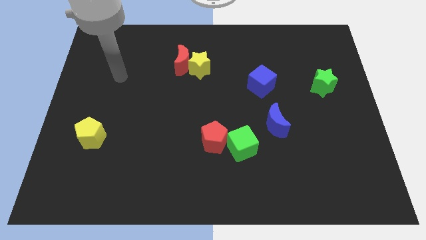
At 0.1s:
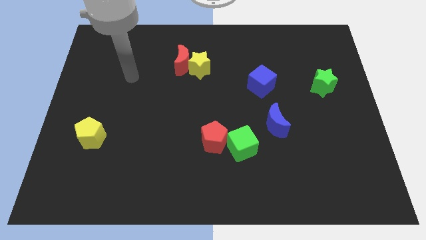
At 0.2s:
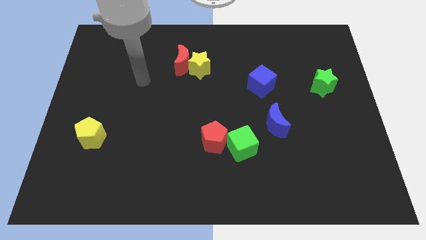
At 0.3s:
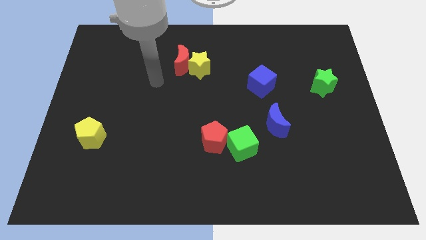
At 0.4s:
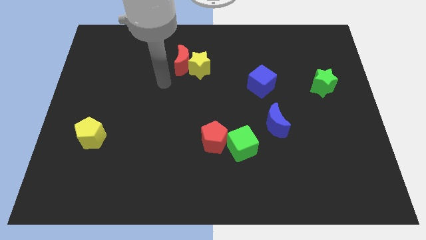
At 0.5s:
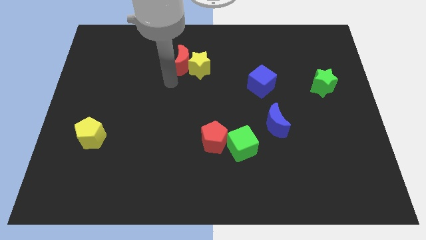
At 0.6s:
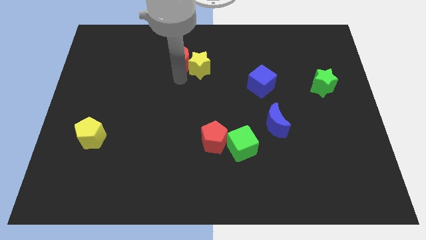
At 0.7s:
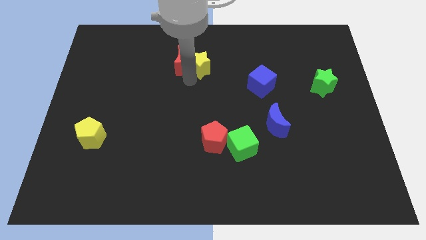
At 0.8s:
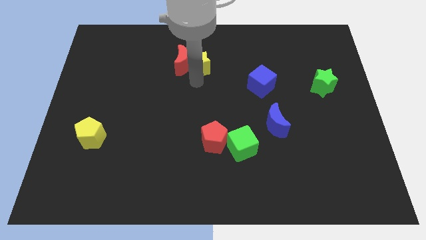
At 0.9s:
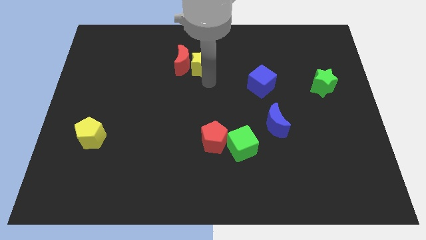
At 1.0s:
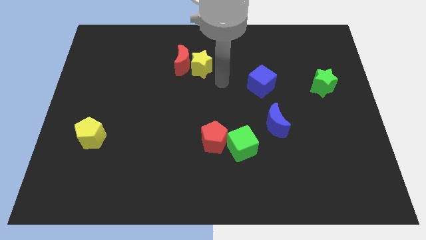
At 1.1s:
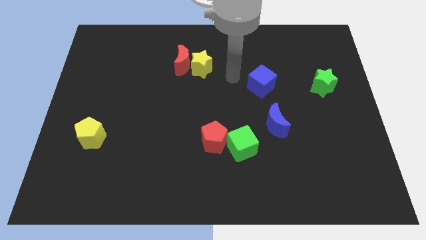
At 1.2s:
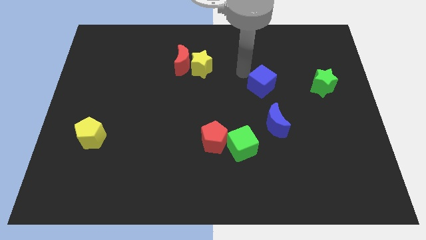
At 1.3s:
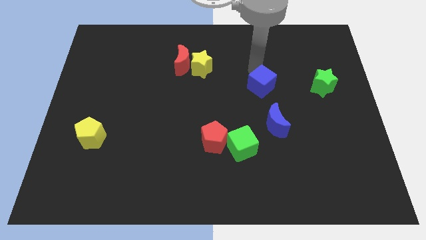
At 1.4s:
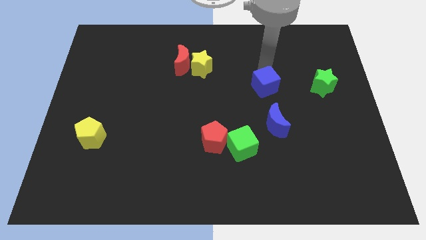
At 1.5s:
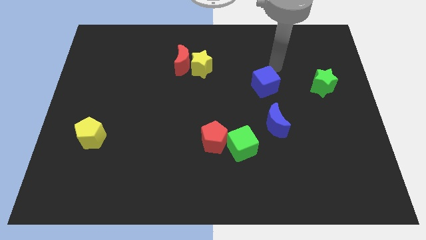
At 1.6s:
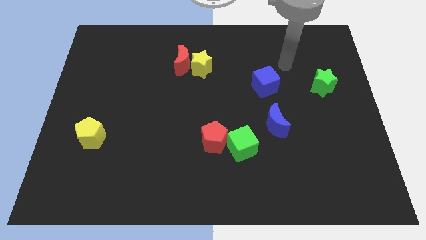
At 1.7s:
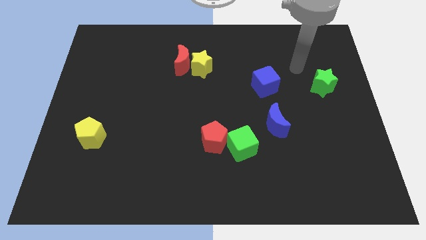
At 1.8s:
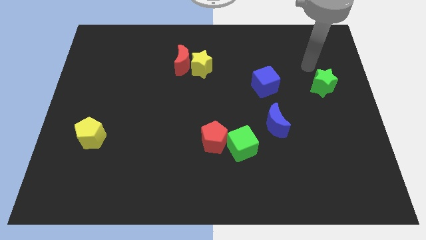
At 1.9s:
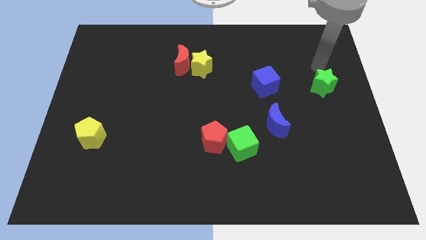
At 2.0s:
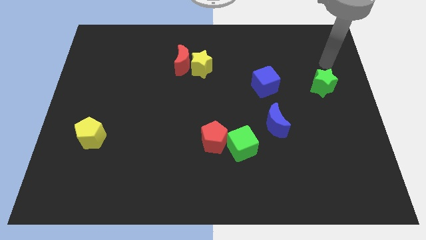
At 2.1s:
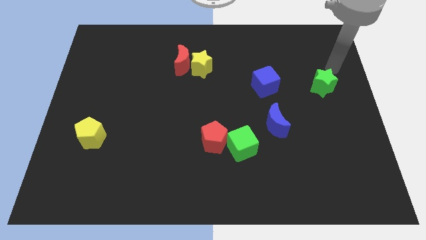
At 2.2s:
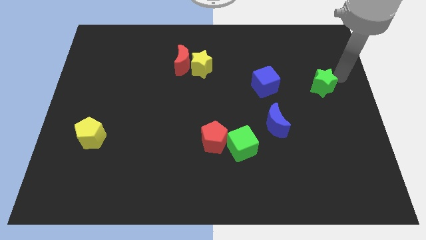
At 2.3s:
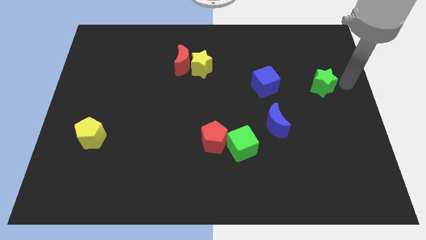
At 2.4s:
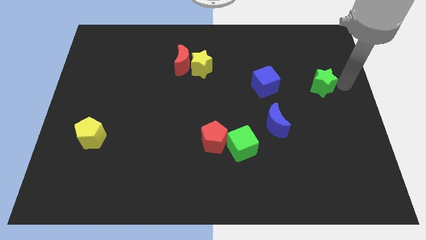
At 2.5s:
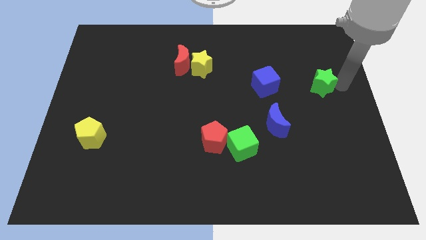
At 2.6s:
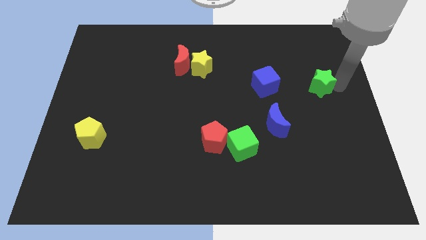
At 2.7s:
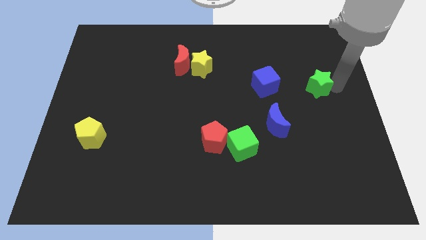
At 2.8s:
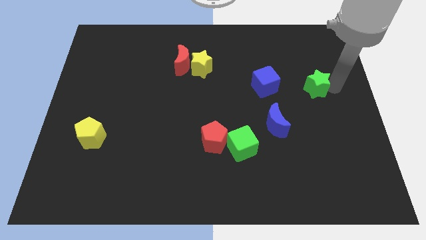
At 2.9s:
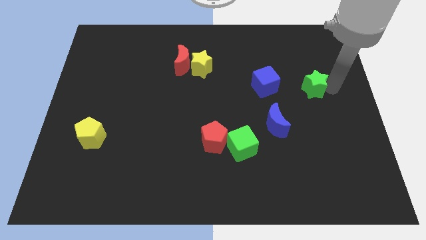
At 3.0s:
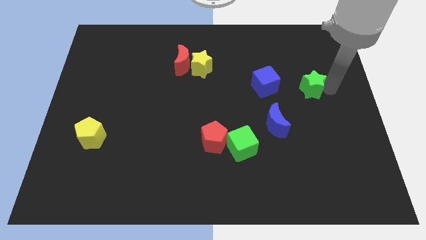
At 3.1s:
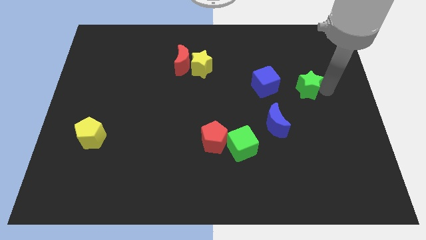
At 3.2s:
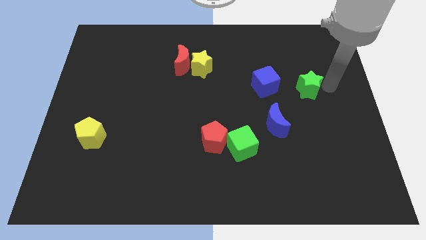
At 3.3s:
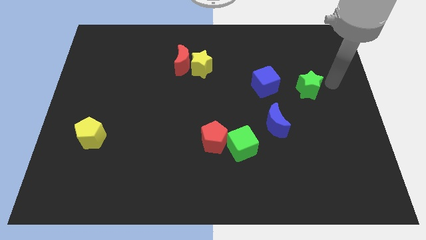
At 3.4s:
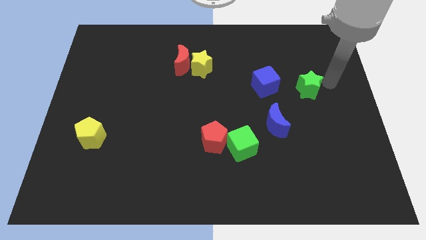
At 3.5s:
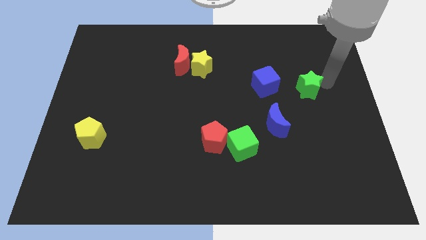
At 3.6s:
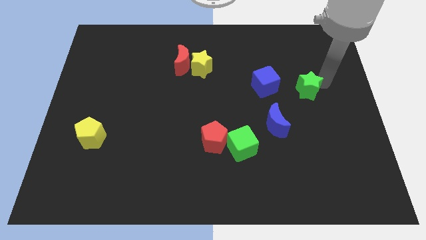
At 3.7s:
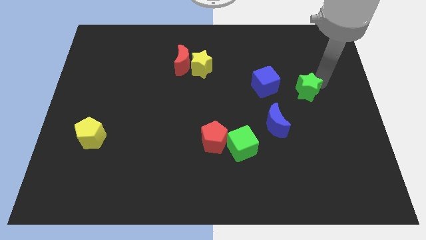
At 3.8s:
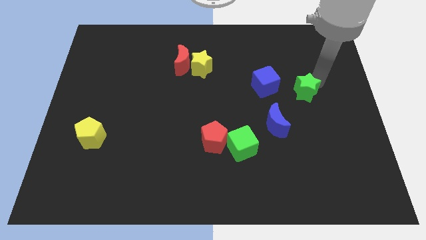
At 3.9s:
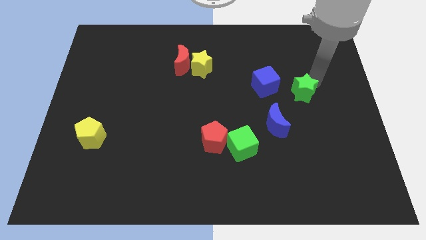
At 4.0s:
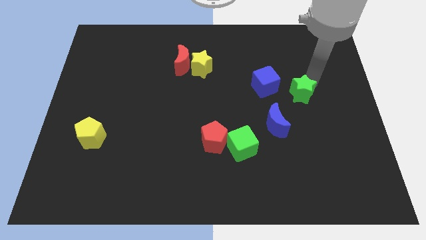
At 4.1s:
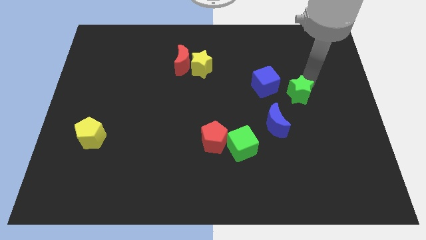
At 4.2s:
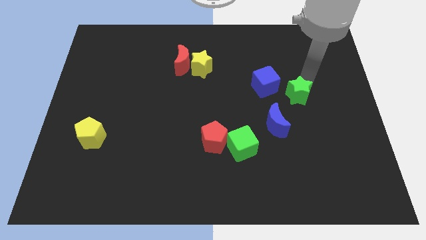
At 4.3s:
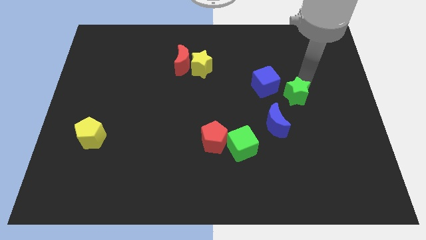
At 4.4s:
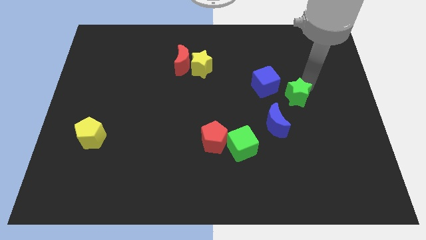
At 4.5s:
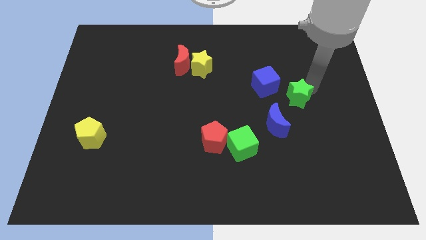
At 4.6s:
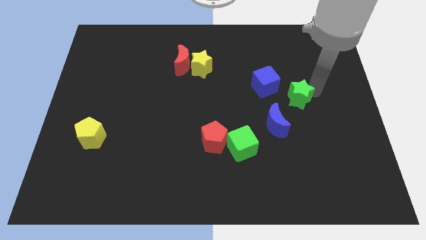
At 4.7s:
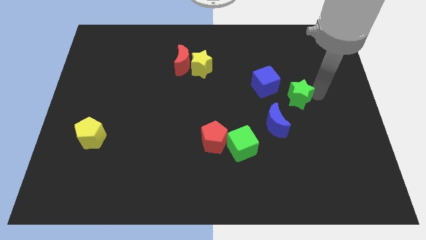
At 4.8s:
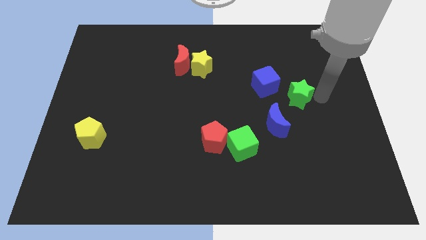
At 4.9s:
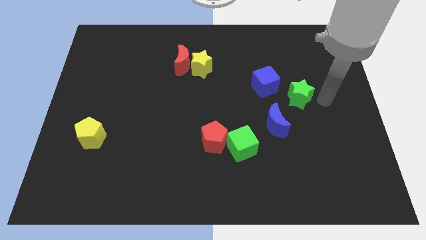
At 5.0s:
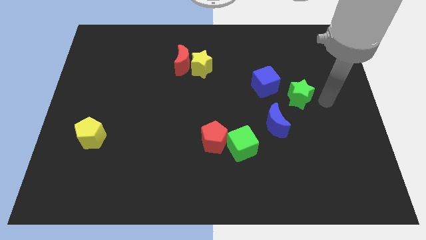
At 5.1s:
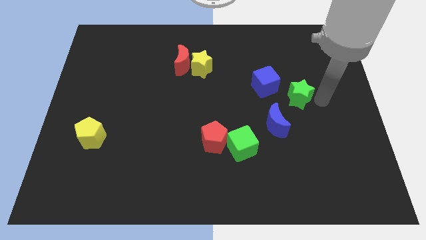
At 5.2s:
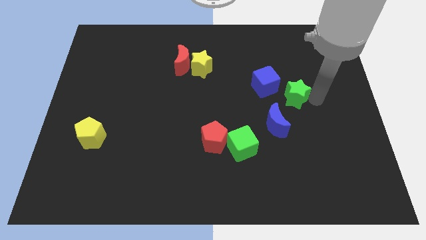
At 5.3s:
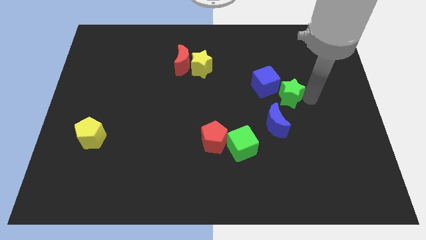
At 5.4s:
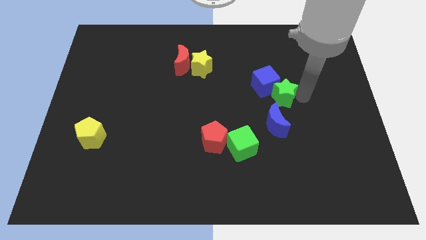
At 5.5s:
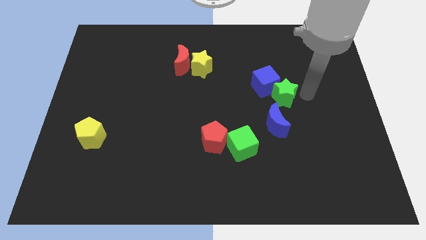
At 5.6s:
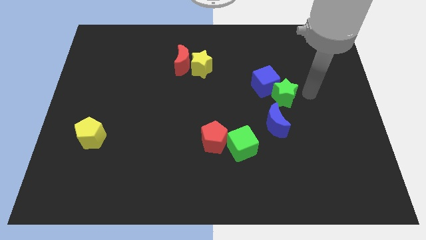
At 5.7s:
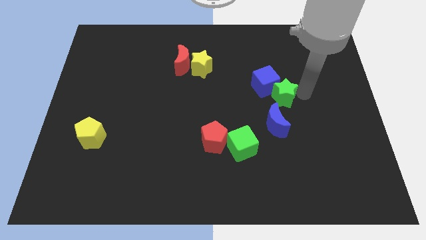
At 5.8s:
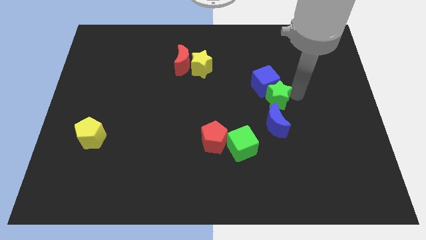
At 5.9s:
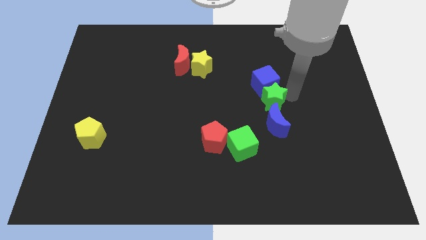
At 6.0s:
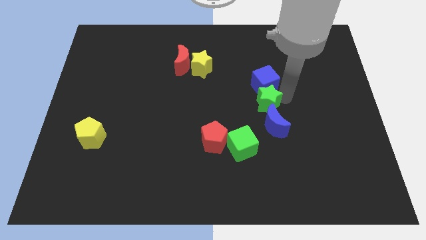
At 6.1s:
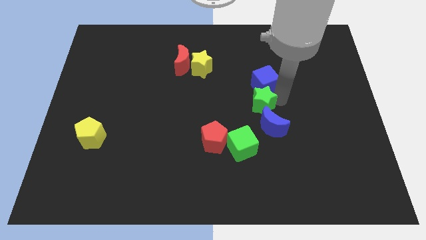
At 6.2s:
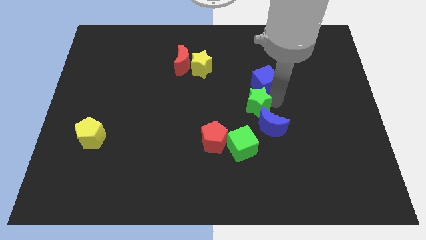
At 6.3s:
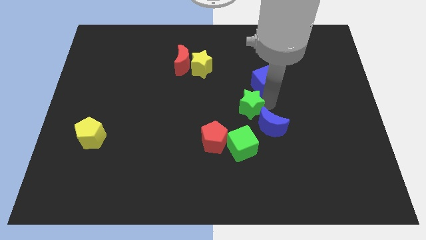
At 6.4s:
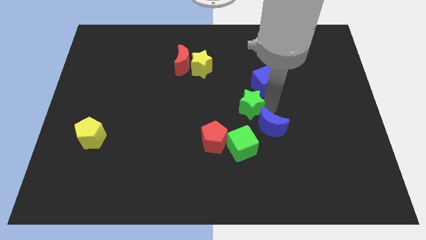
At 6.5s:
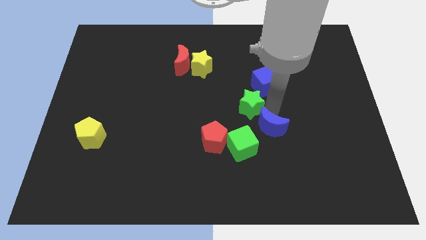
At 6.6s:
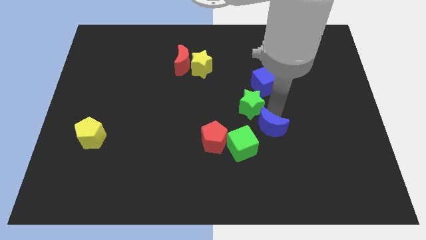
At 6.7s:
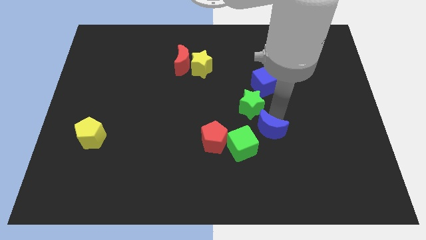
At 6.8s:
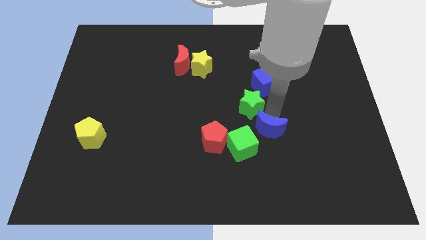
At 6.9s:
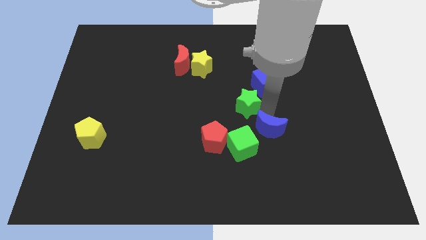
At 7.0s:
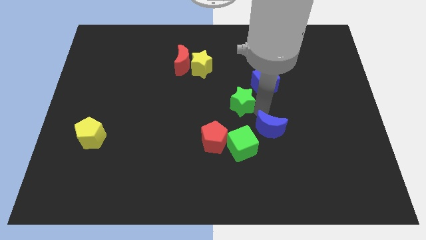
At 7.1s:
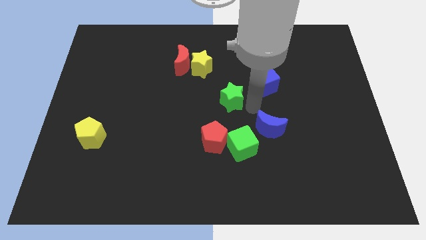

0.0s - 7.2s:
move the green star left

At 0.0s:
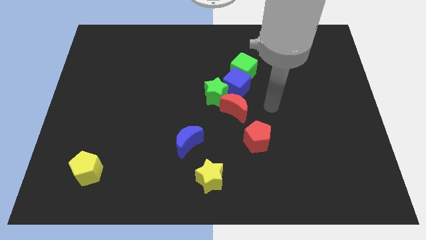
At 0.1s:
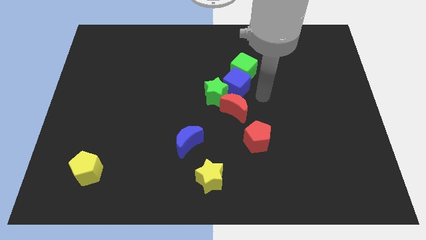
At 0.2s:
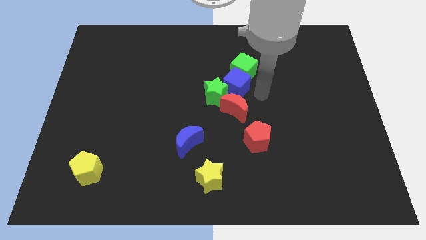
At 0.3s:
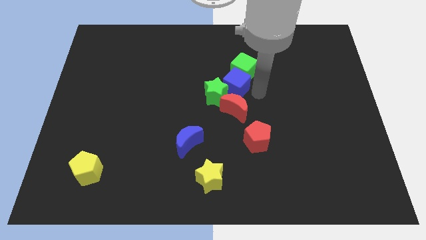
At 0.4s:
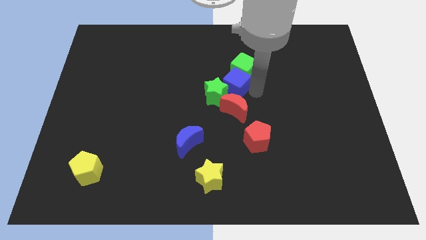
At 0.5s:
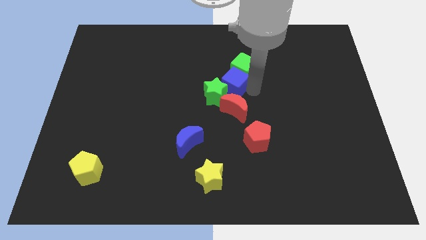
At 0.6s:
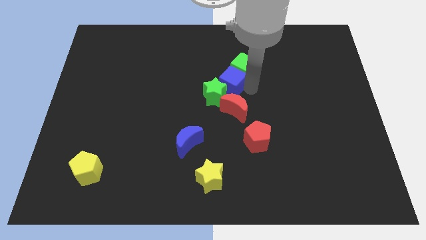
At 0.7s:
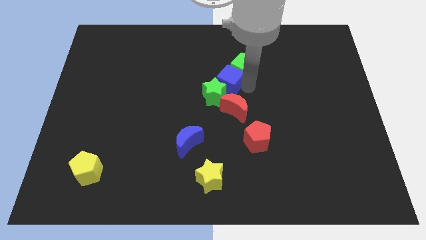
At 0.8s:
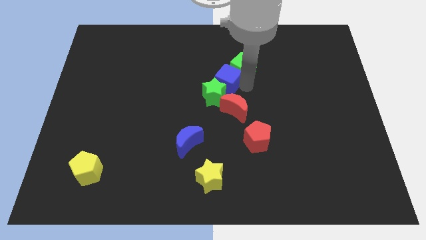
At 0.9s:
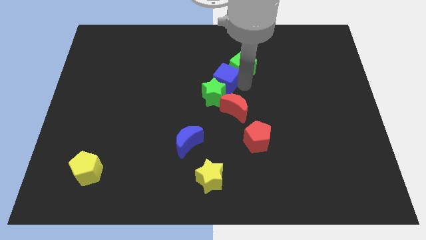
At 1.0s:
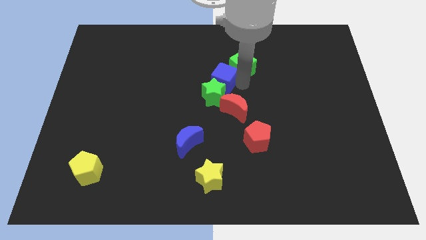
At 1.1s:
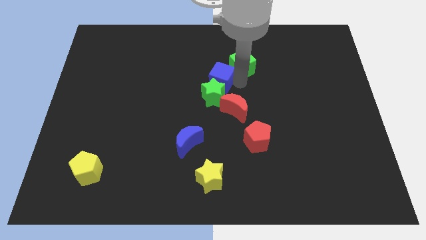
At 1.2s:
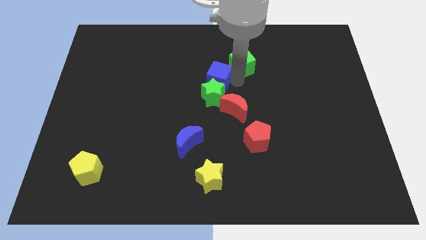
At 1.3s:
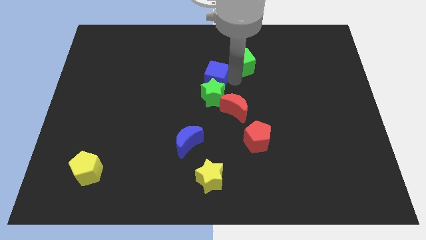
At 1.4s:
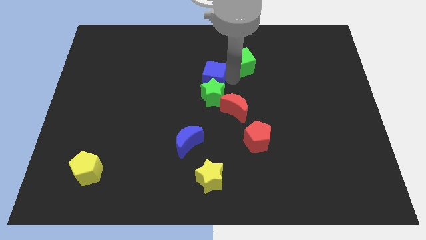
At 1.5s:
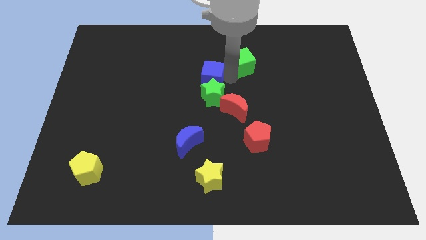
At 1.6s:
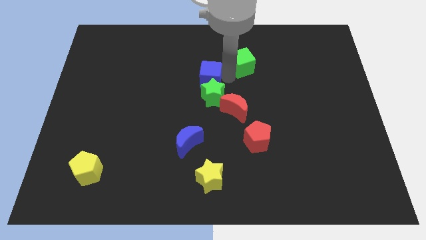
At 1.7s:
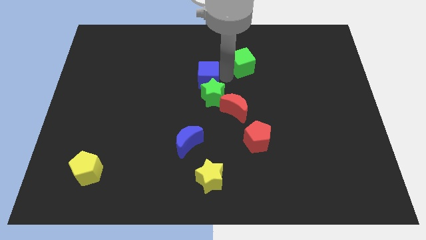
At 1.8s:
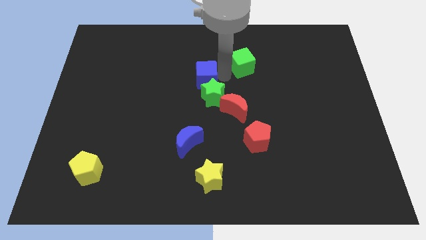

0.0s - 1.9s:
slide the blue cube somewhat left
